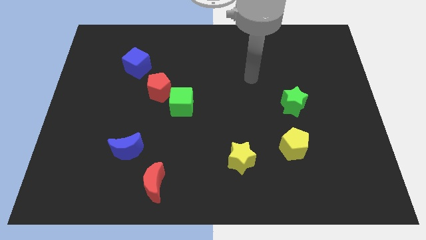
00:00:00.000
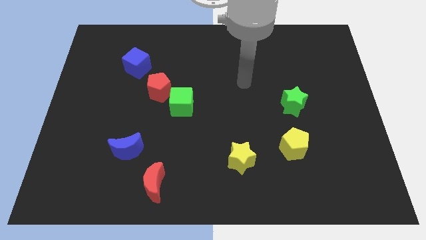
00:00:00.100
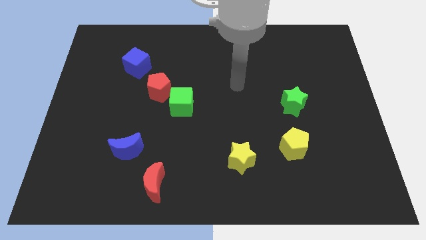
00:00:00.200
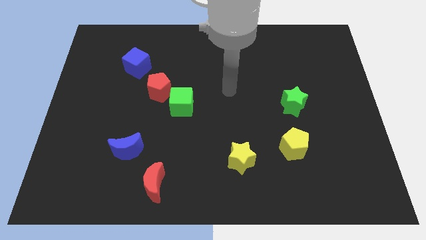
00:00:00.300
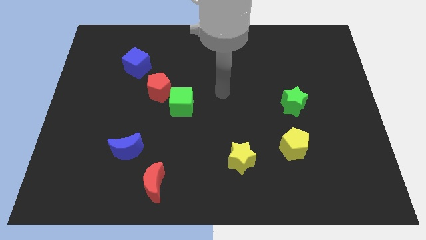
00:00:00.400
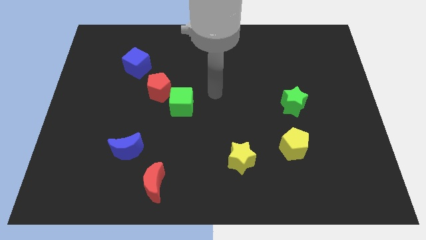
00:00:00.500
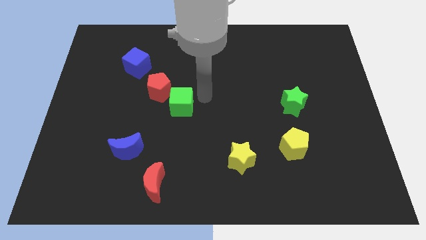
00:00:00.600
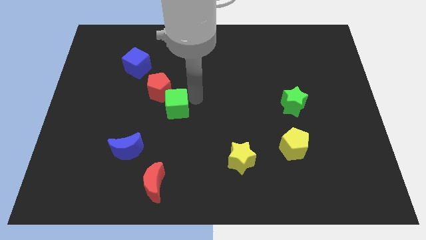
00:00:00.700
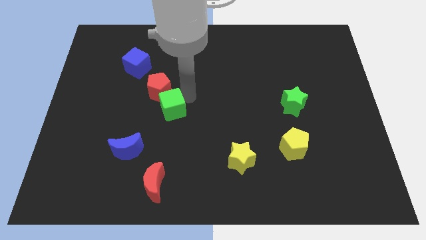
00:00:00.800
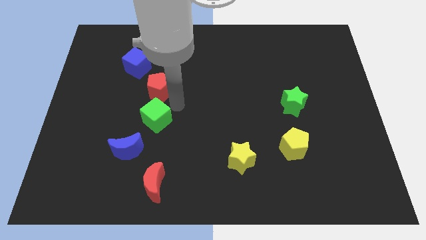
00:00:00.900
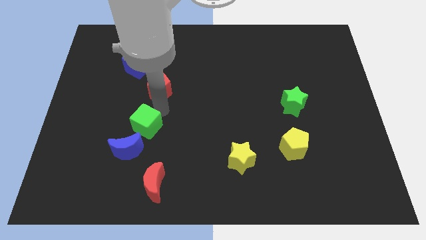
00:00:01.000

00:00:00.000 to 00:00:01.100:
separate the red pentagon from the green cube

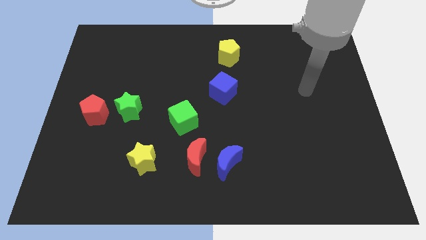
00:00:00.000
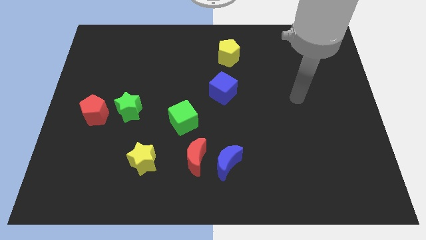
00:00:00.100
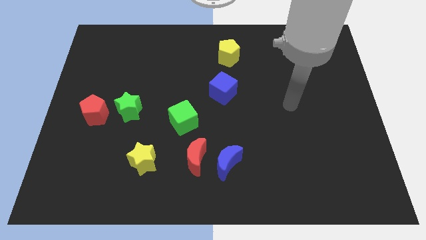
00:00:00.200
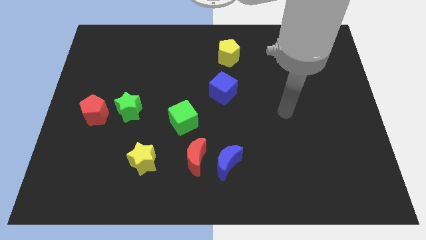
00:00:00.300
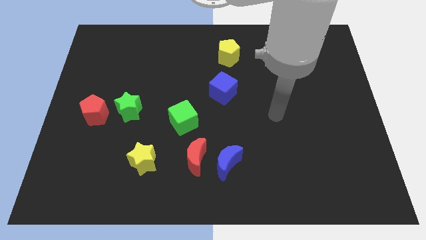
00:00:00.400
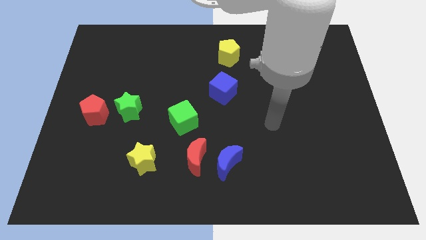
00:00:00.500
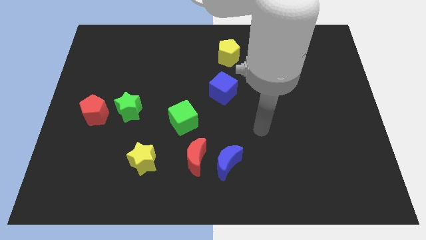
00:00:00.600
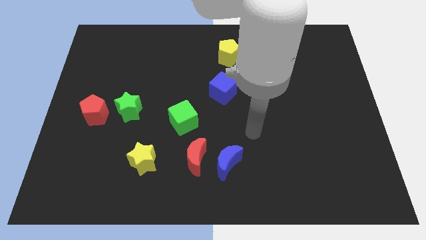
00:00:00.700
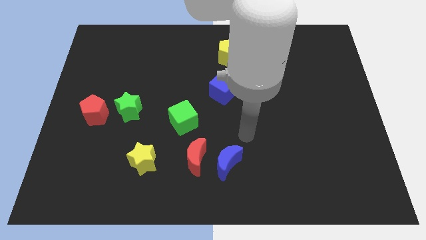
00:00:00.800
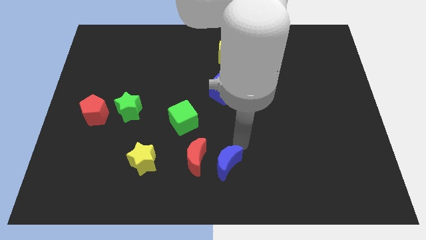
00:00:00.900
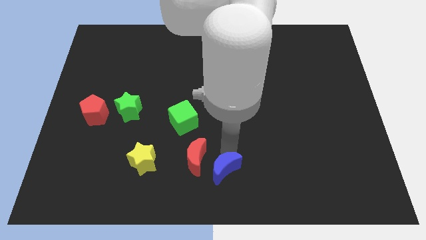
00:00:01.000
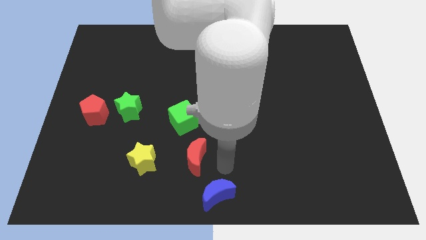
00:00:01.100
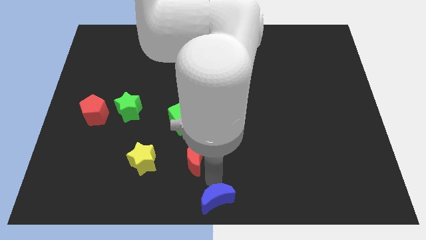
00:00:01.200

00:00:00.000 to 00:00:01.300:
pull the red moon apart from the blue moon

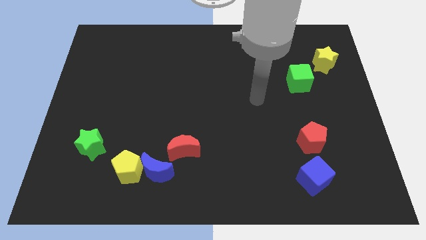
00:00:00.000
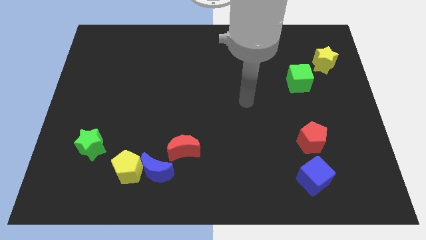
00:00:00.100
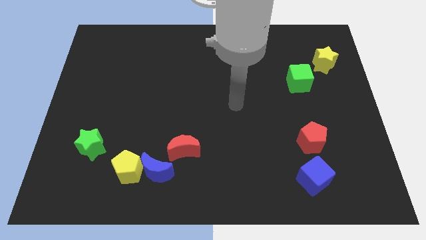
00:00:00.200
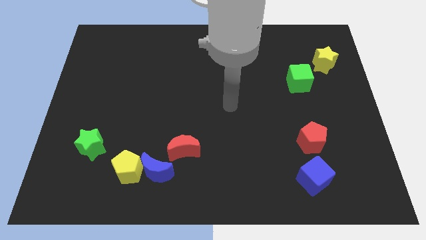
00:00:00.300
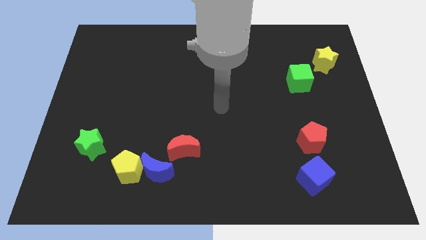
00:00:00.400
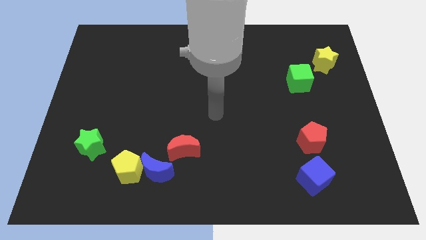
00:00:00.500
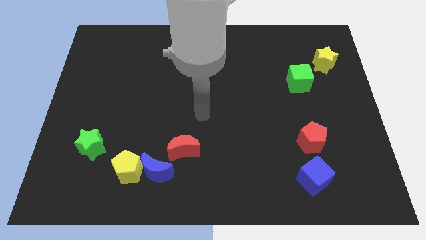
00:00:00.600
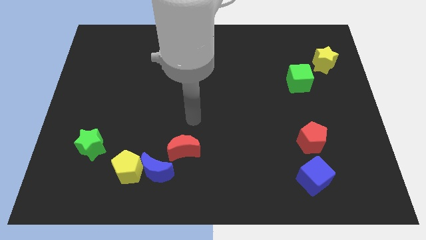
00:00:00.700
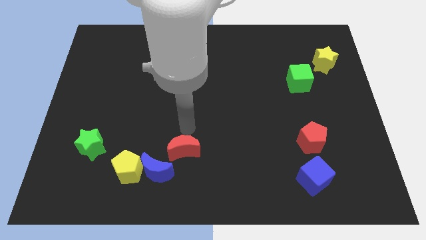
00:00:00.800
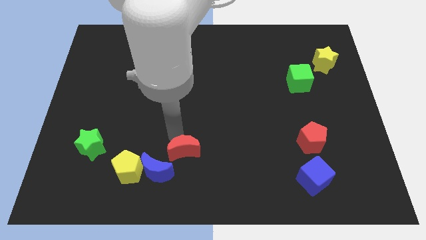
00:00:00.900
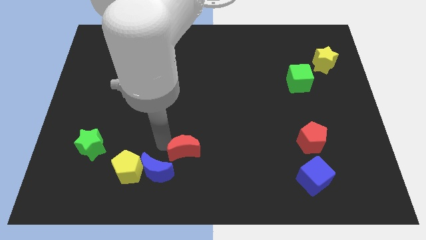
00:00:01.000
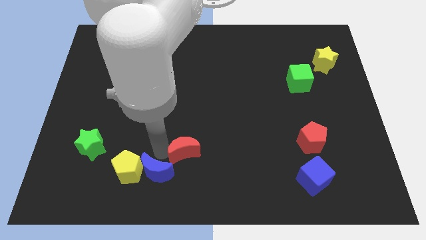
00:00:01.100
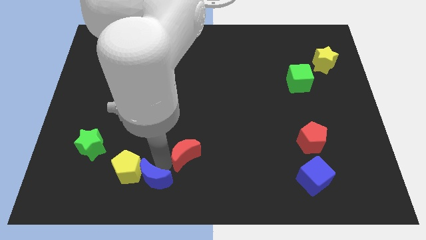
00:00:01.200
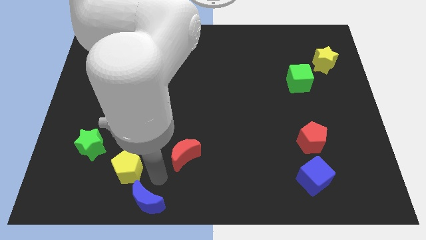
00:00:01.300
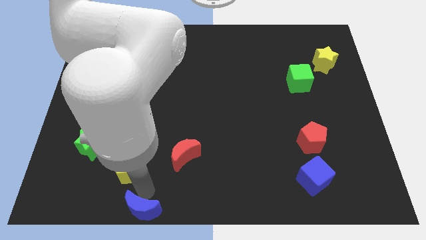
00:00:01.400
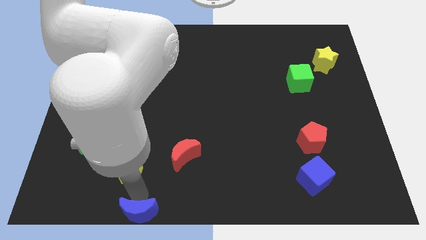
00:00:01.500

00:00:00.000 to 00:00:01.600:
separate the yellow pentagon from the blue moon

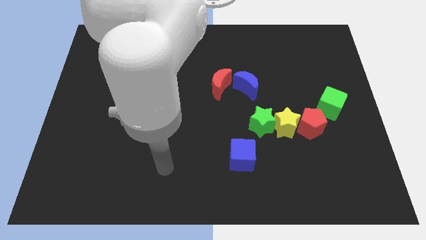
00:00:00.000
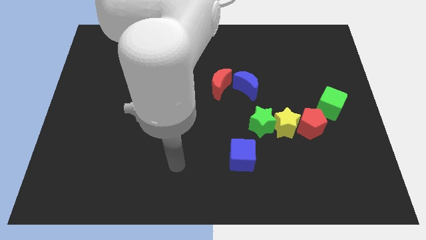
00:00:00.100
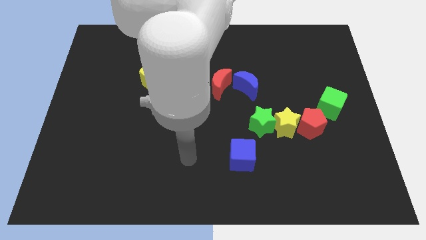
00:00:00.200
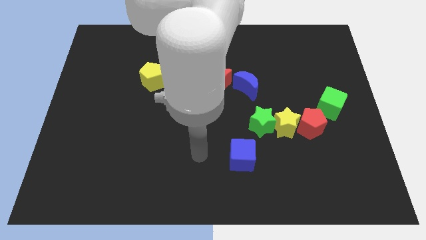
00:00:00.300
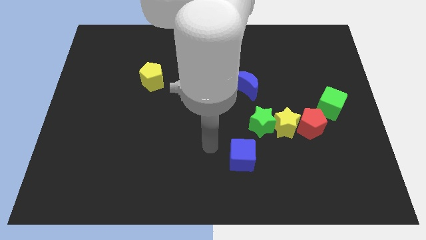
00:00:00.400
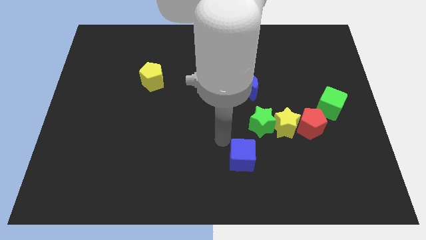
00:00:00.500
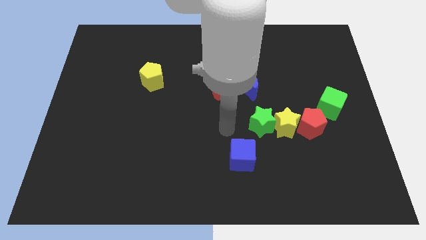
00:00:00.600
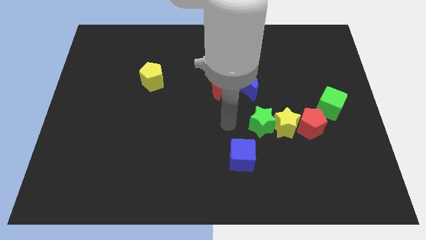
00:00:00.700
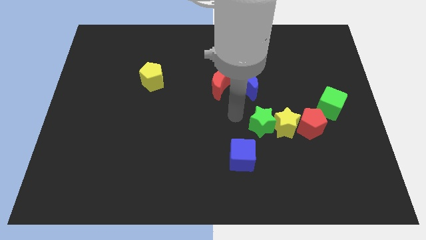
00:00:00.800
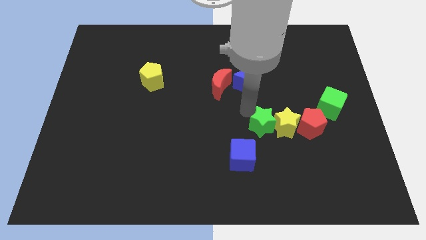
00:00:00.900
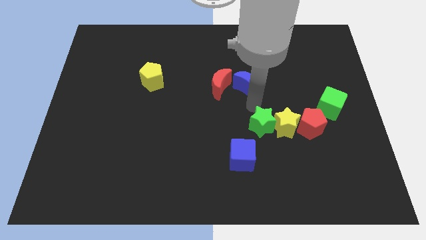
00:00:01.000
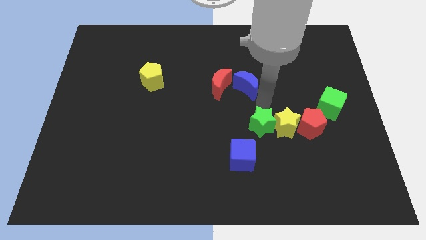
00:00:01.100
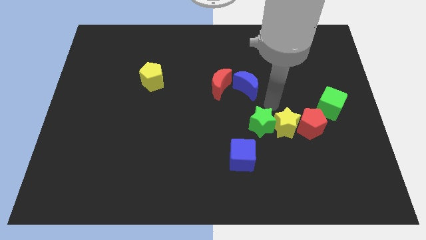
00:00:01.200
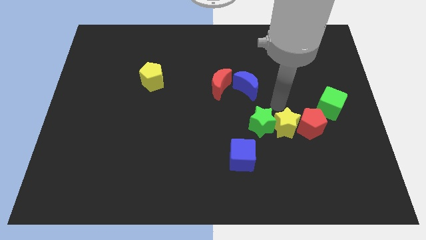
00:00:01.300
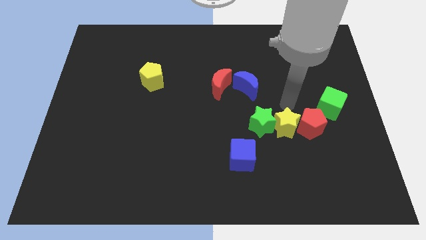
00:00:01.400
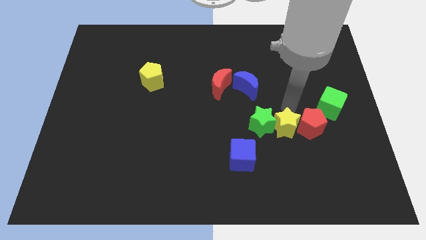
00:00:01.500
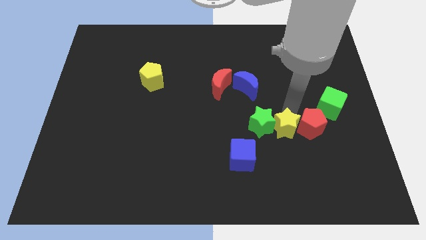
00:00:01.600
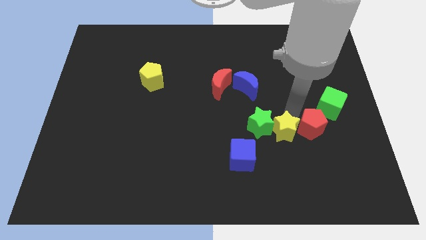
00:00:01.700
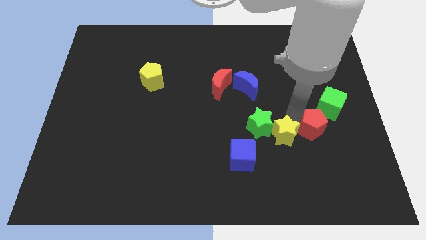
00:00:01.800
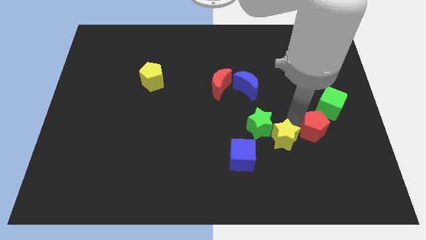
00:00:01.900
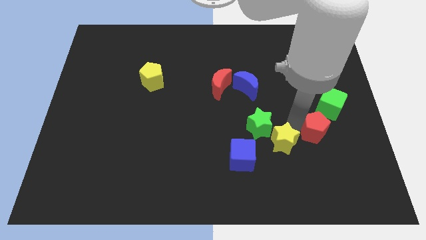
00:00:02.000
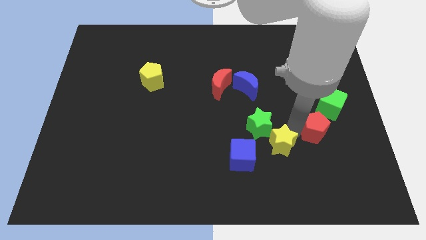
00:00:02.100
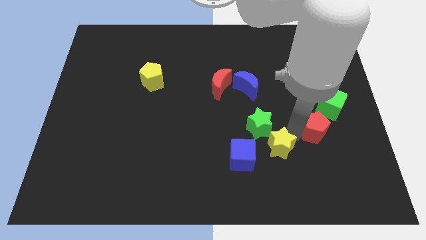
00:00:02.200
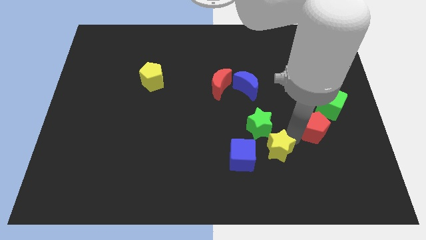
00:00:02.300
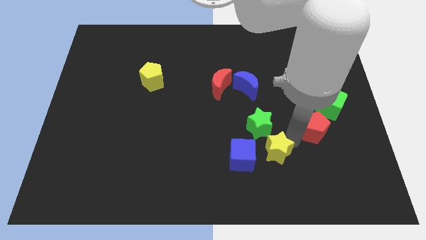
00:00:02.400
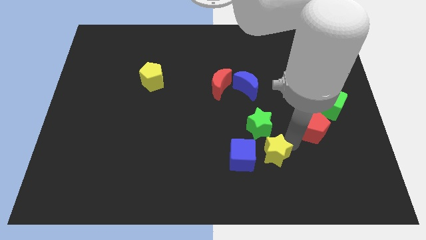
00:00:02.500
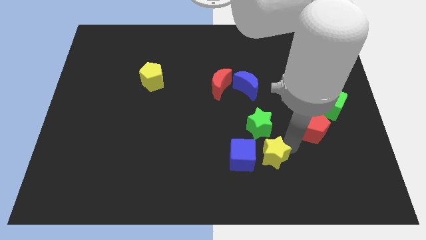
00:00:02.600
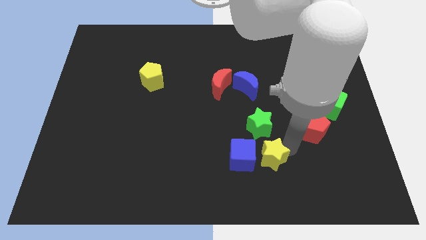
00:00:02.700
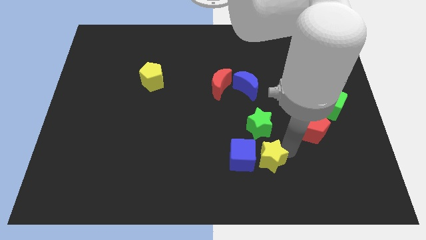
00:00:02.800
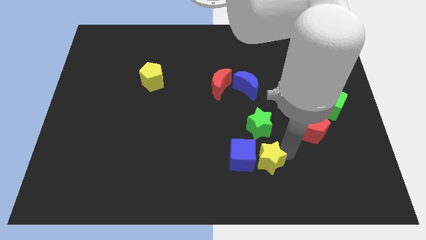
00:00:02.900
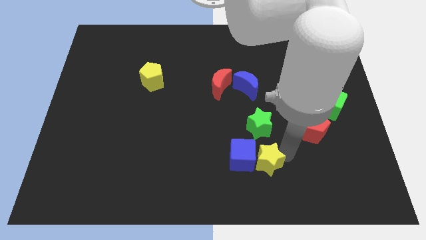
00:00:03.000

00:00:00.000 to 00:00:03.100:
pull the yellow star apart from the green star and red pentagon

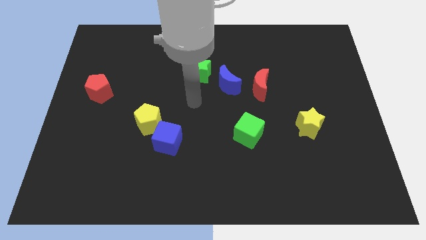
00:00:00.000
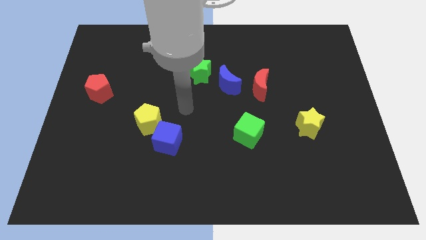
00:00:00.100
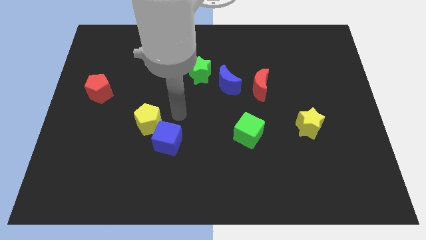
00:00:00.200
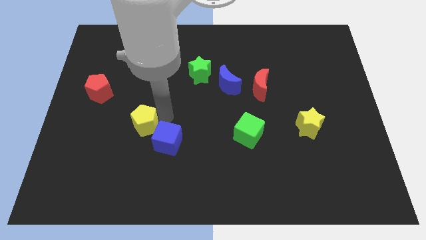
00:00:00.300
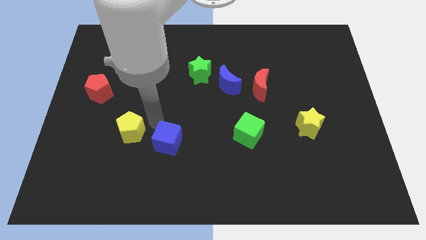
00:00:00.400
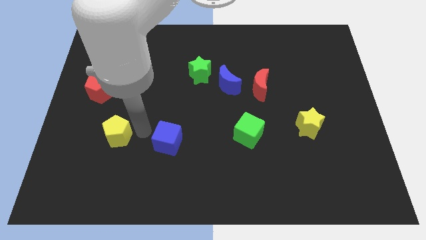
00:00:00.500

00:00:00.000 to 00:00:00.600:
separate the blue cube from the yellow pentagon

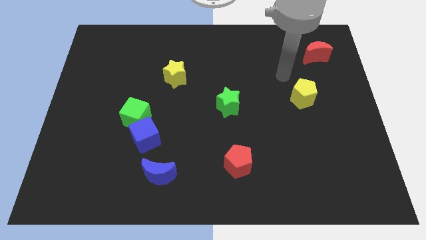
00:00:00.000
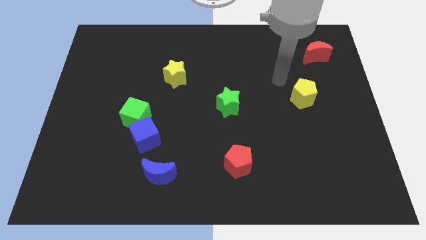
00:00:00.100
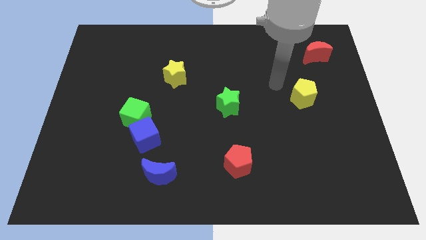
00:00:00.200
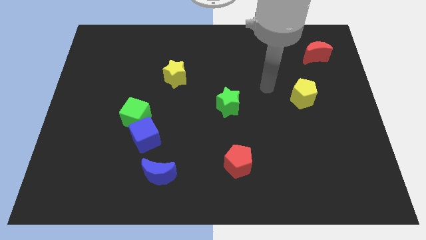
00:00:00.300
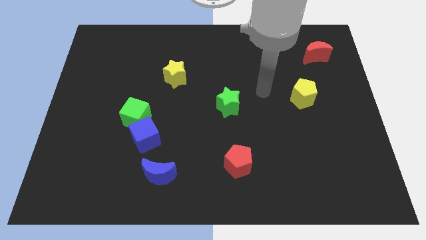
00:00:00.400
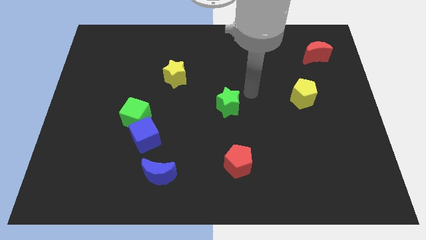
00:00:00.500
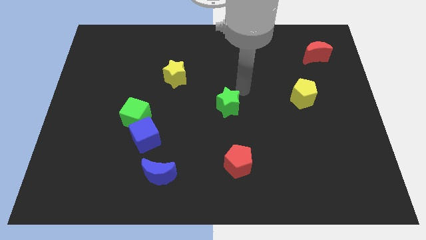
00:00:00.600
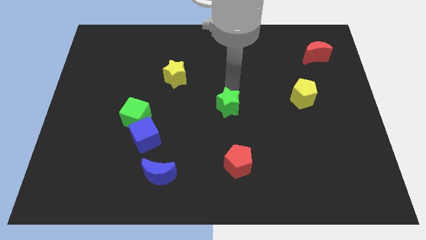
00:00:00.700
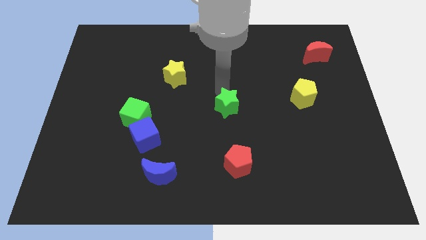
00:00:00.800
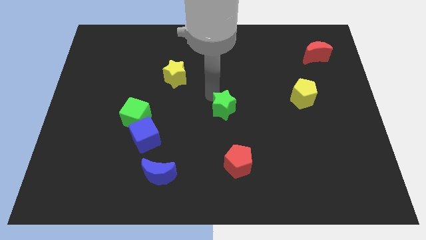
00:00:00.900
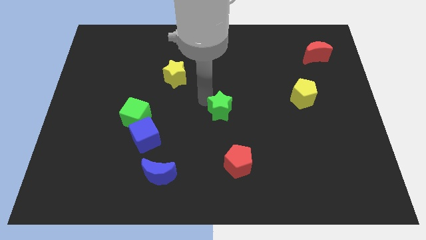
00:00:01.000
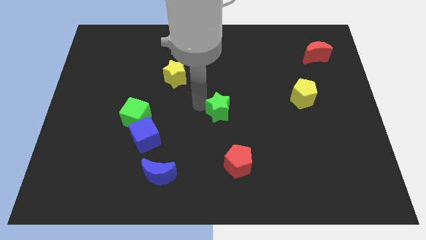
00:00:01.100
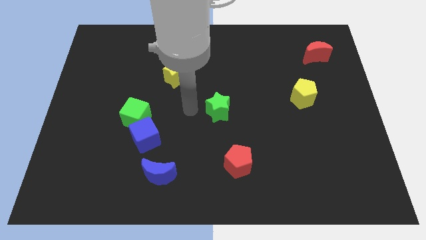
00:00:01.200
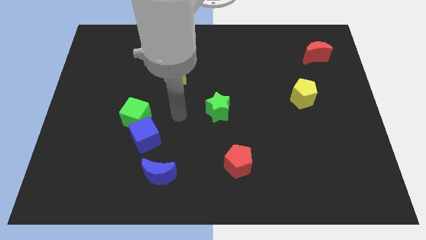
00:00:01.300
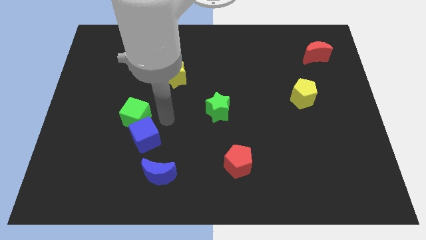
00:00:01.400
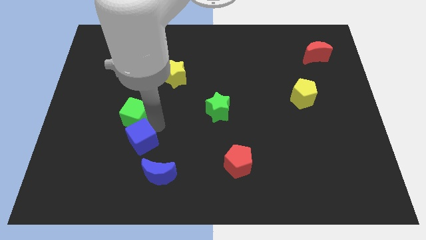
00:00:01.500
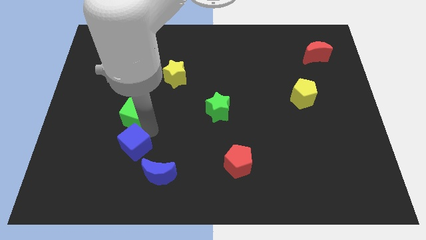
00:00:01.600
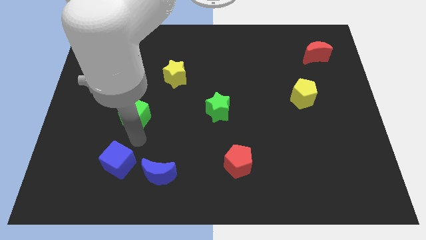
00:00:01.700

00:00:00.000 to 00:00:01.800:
separate the green cube from the blue cube
